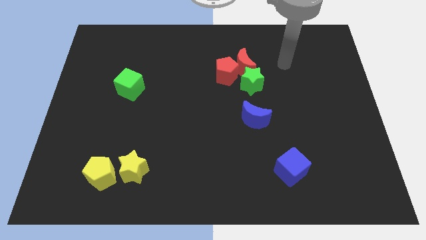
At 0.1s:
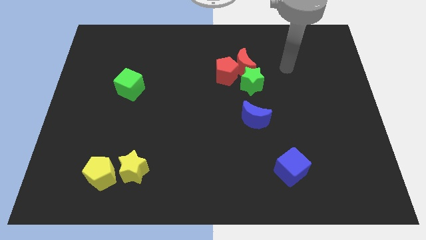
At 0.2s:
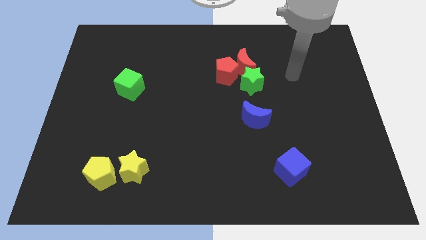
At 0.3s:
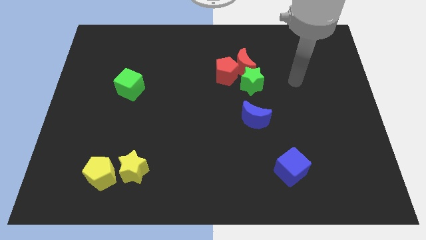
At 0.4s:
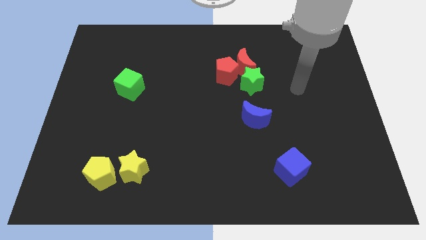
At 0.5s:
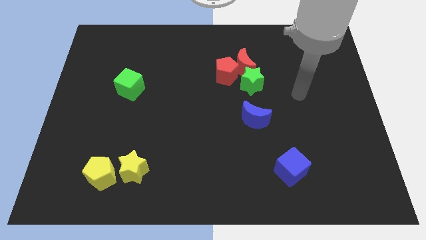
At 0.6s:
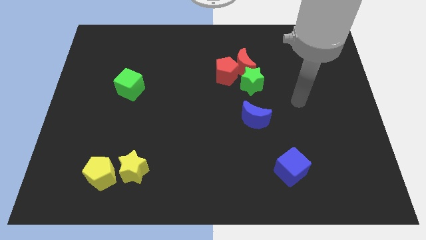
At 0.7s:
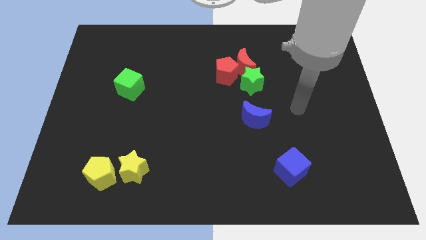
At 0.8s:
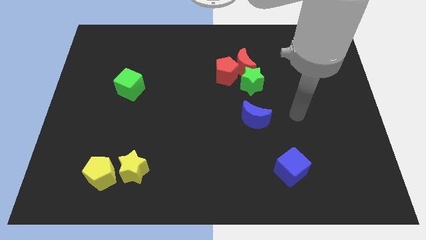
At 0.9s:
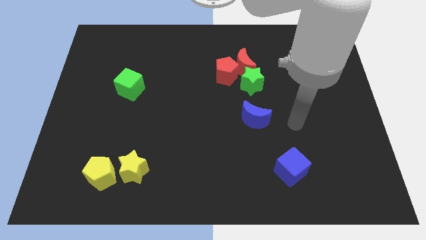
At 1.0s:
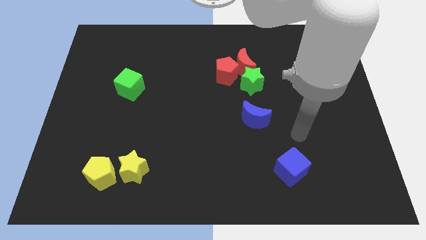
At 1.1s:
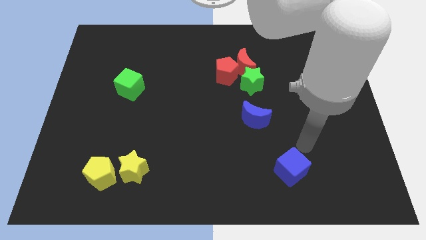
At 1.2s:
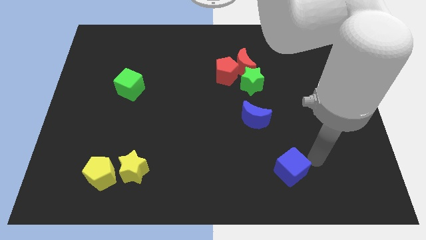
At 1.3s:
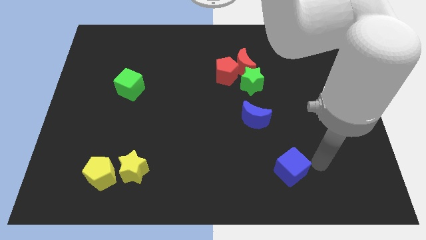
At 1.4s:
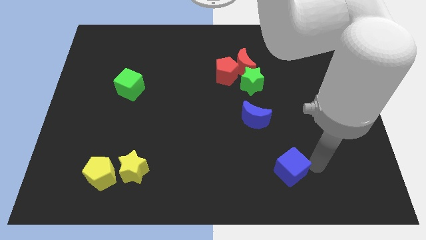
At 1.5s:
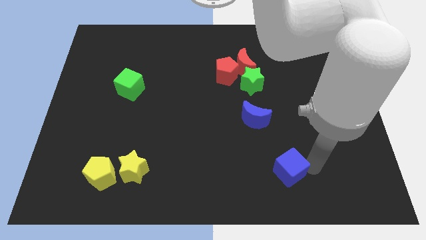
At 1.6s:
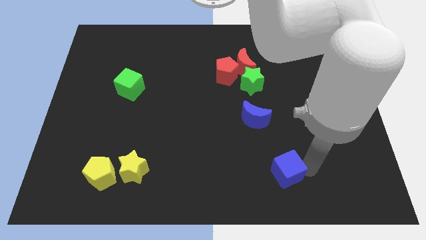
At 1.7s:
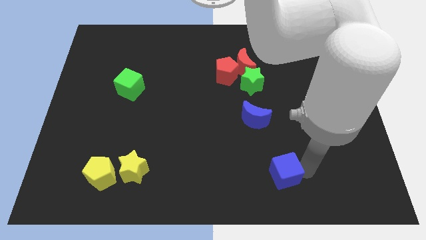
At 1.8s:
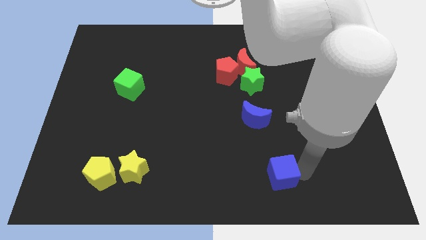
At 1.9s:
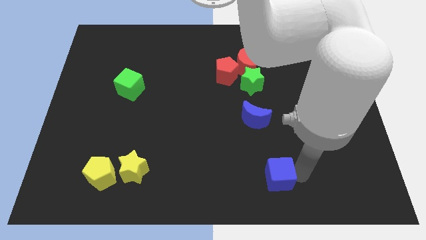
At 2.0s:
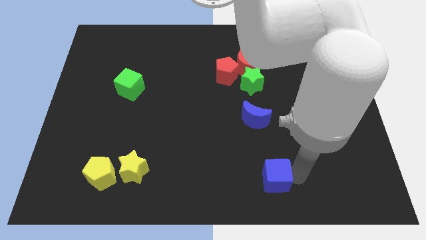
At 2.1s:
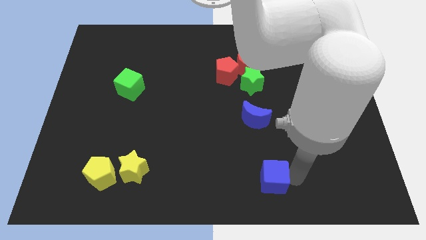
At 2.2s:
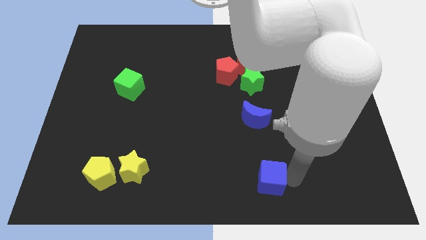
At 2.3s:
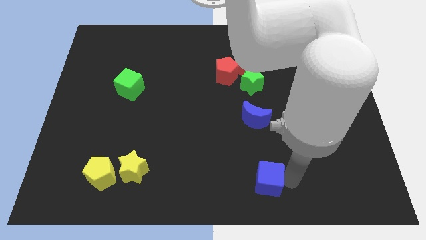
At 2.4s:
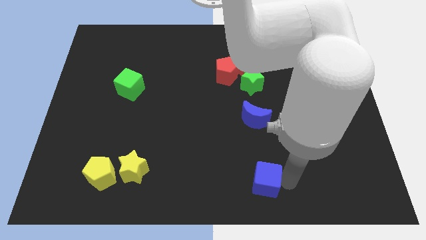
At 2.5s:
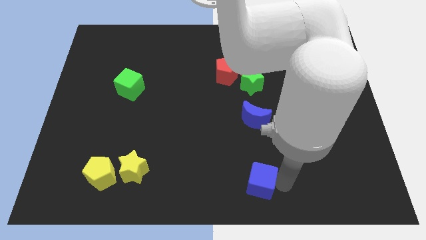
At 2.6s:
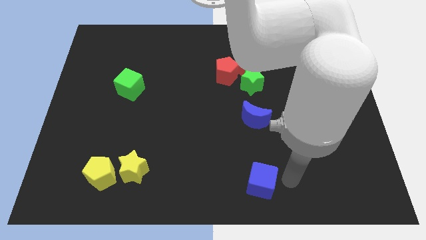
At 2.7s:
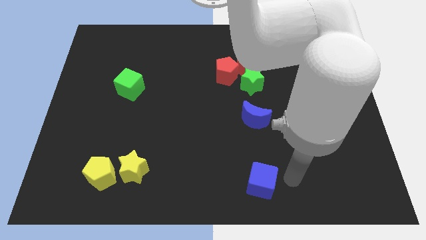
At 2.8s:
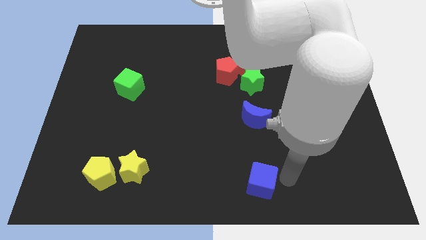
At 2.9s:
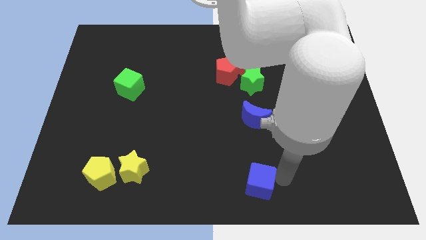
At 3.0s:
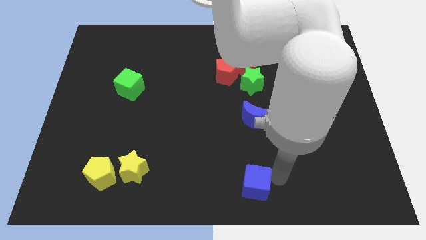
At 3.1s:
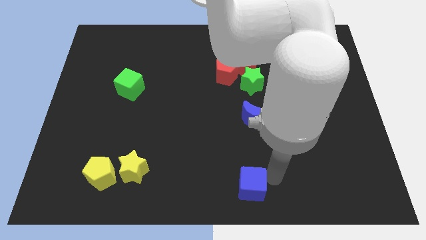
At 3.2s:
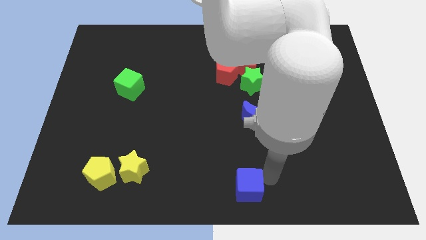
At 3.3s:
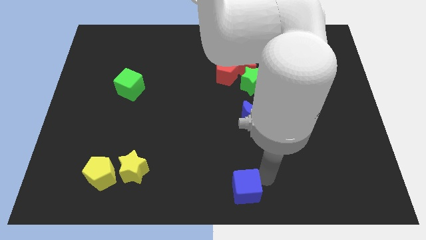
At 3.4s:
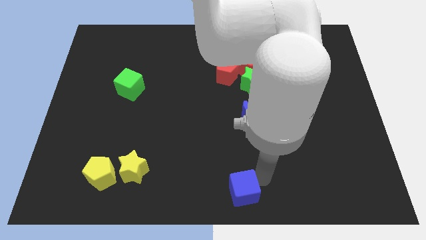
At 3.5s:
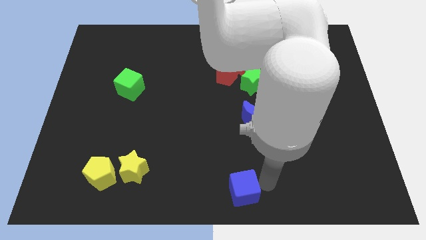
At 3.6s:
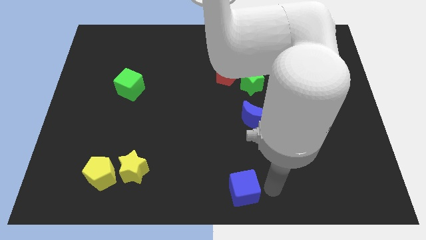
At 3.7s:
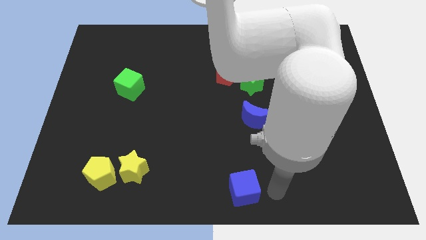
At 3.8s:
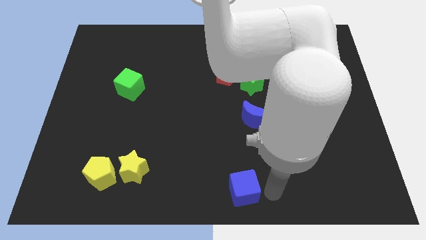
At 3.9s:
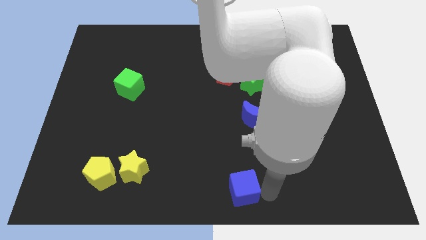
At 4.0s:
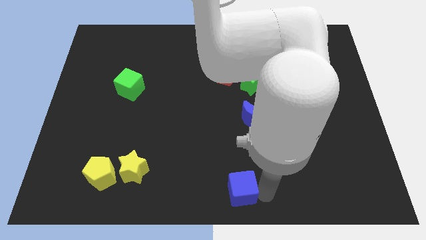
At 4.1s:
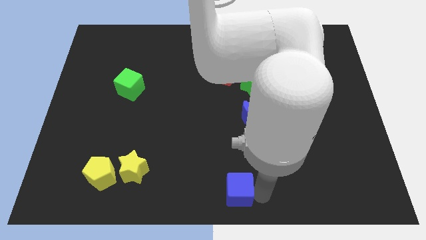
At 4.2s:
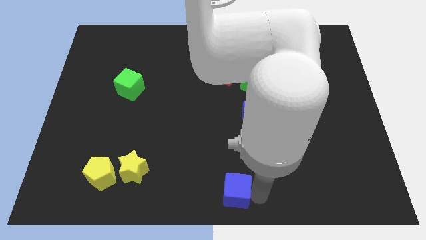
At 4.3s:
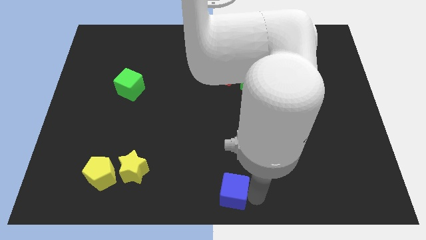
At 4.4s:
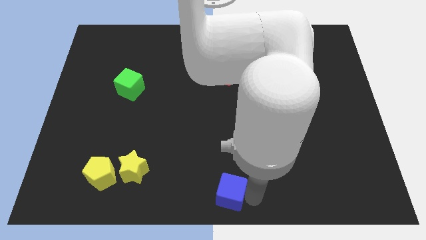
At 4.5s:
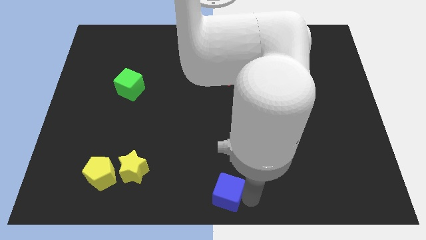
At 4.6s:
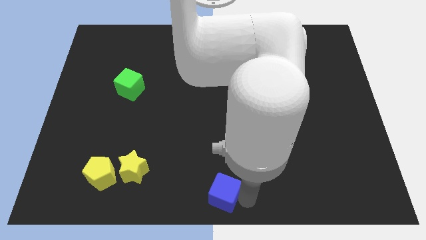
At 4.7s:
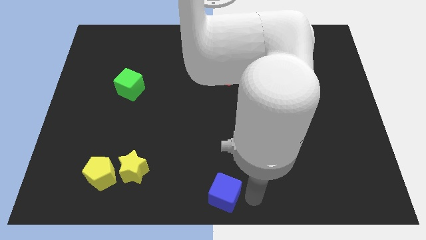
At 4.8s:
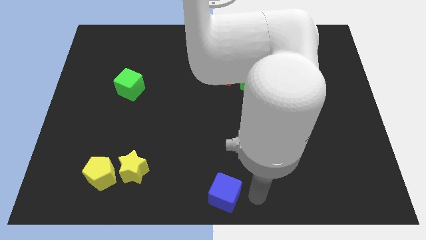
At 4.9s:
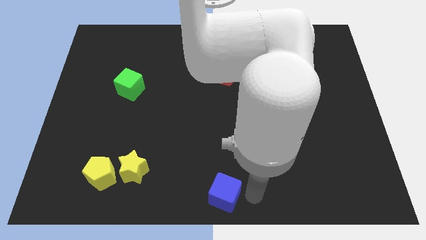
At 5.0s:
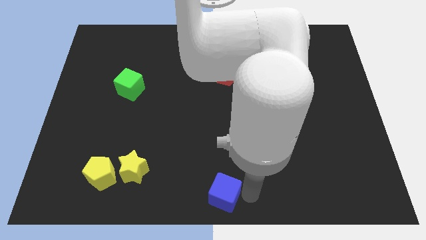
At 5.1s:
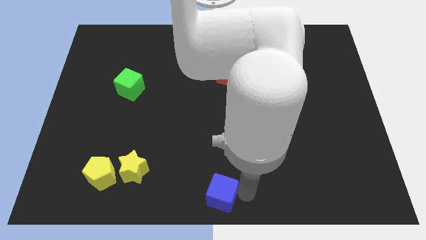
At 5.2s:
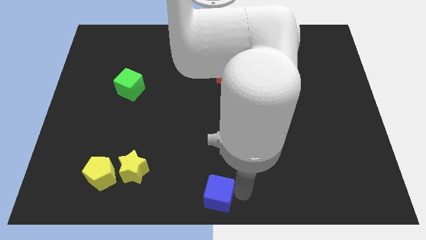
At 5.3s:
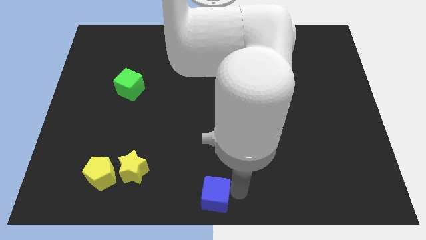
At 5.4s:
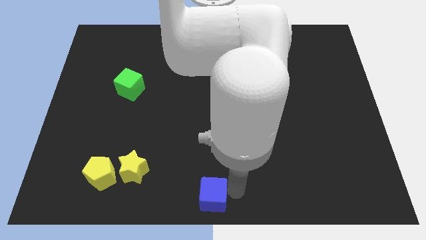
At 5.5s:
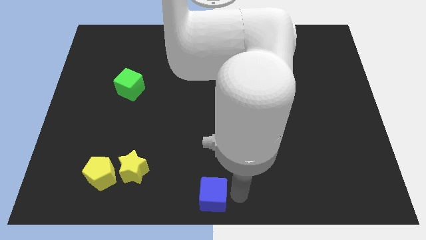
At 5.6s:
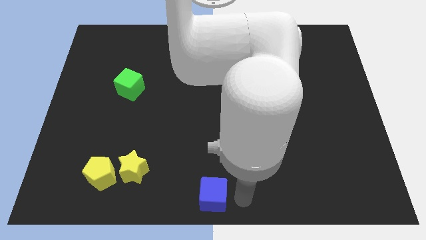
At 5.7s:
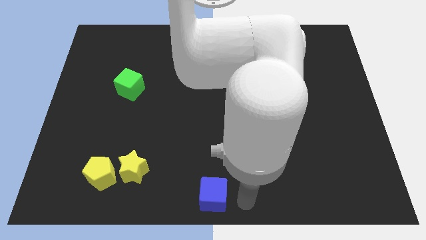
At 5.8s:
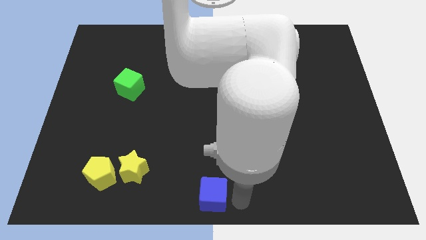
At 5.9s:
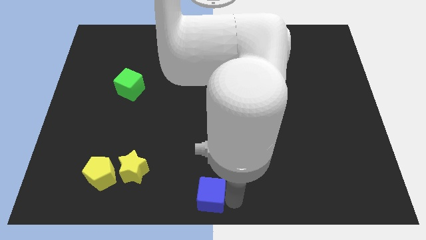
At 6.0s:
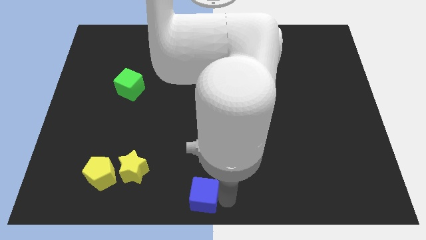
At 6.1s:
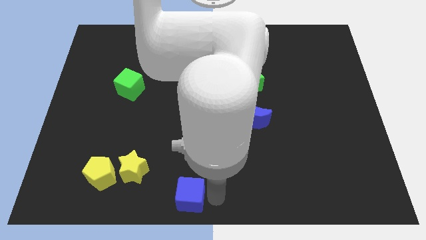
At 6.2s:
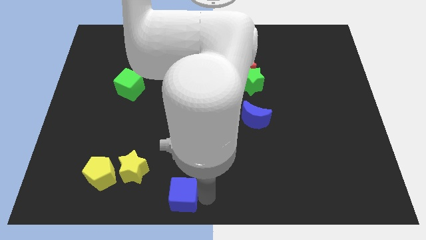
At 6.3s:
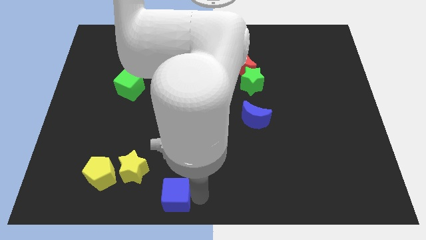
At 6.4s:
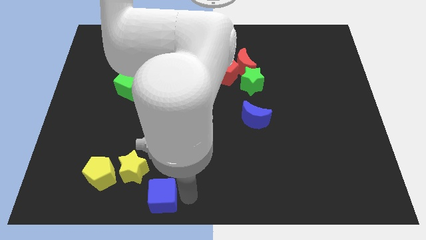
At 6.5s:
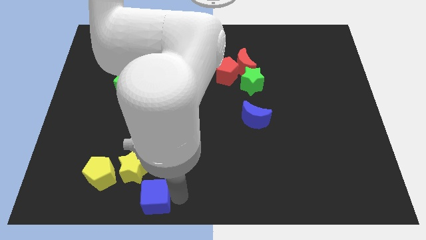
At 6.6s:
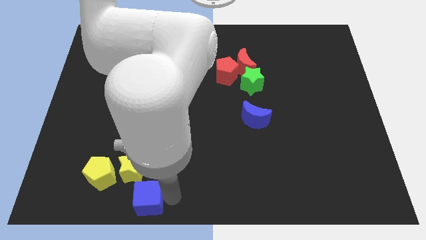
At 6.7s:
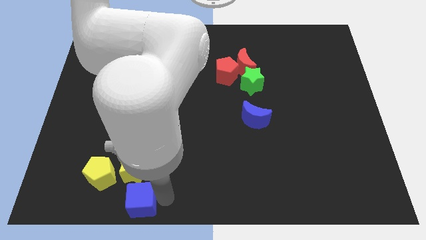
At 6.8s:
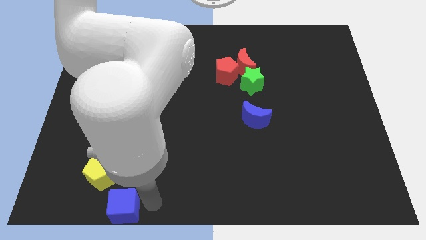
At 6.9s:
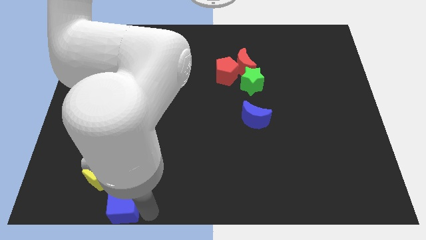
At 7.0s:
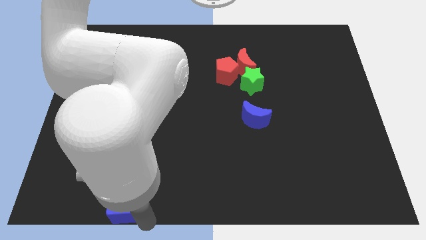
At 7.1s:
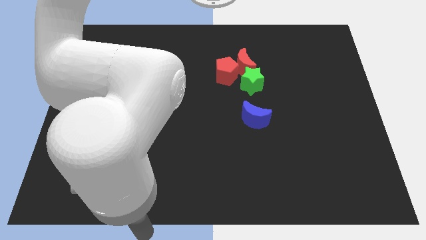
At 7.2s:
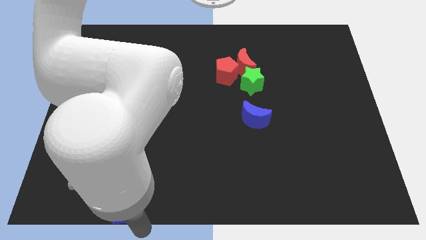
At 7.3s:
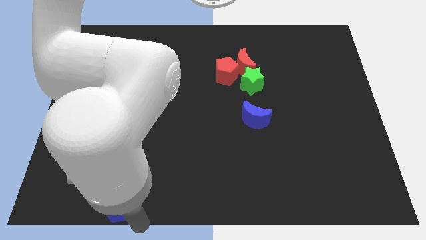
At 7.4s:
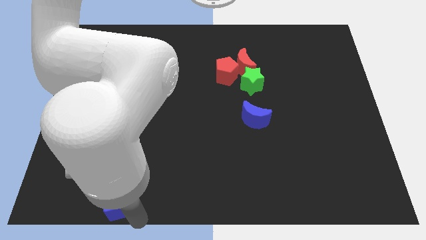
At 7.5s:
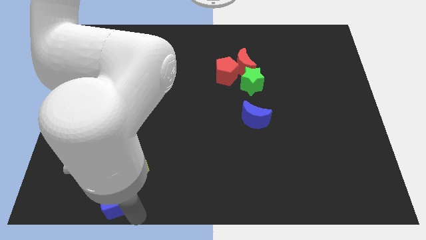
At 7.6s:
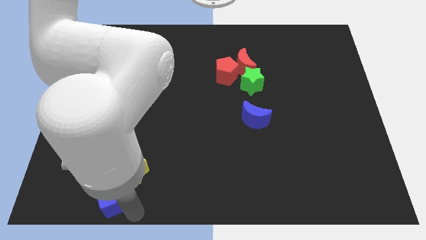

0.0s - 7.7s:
put the blue cube next to the yellow pentagon
